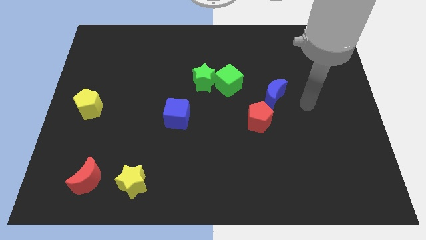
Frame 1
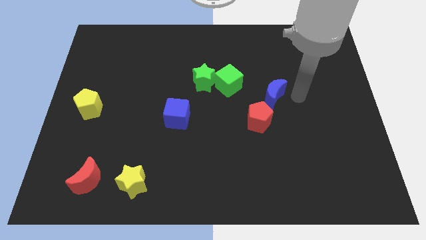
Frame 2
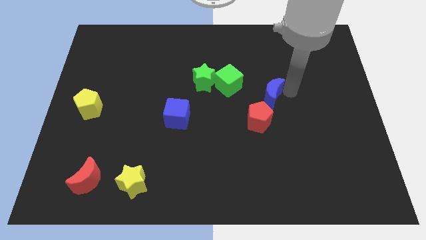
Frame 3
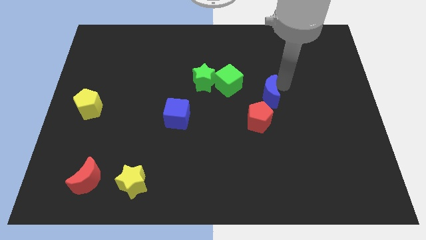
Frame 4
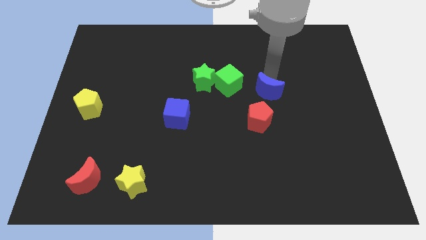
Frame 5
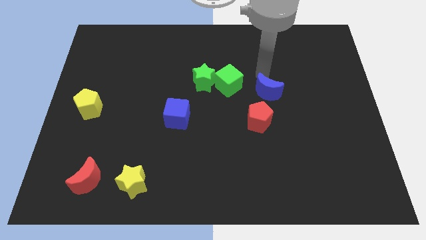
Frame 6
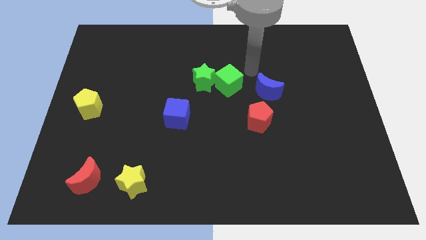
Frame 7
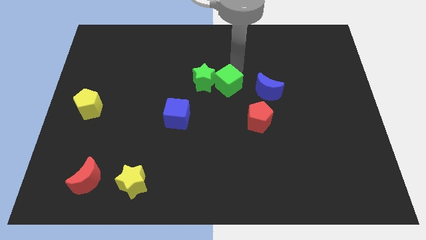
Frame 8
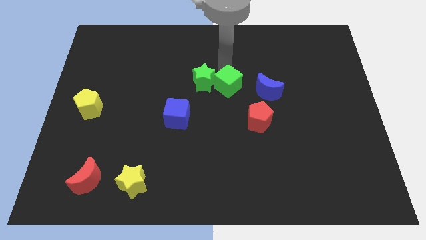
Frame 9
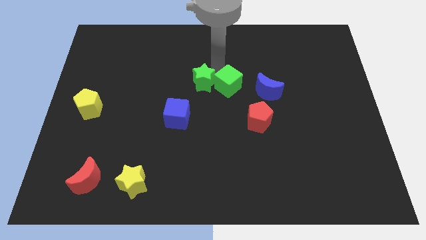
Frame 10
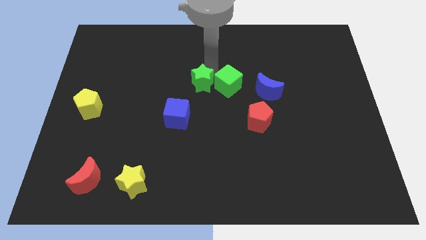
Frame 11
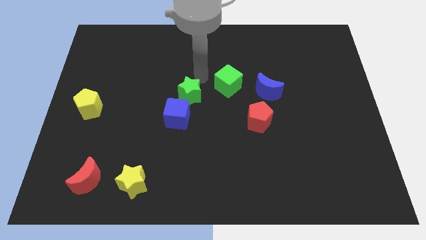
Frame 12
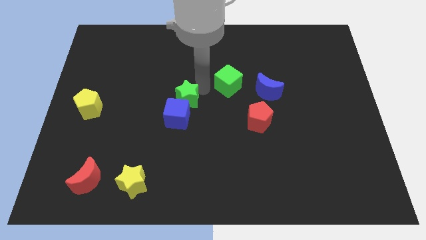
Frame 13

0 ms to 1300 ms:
pull the green cube apart from the green star

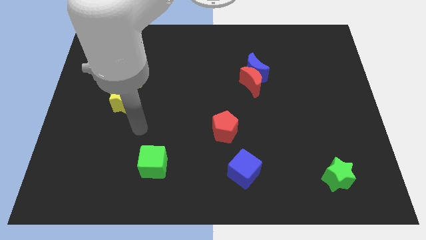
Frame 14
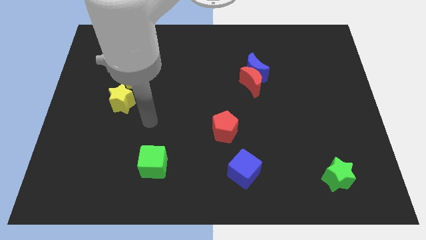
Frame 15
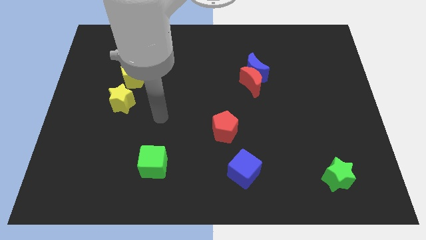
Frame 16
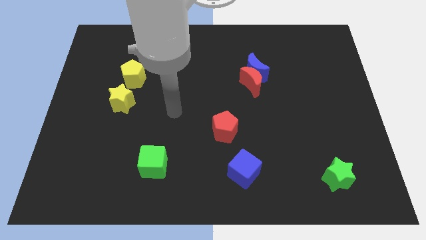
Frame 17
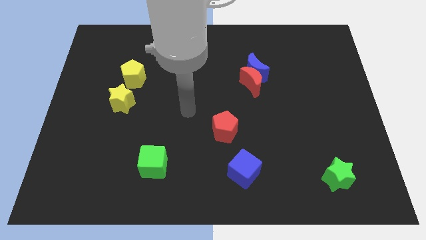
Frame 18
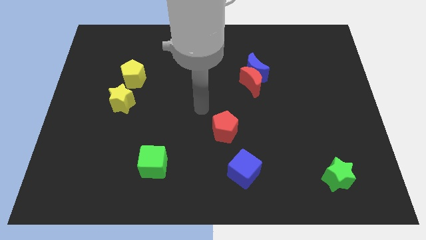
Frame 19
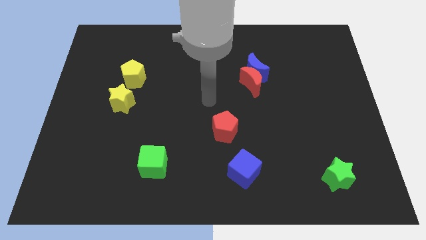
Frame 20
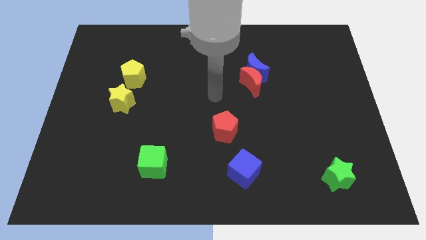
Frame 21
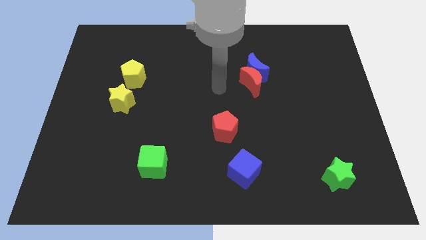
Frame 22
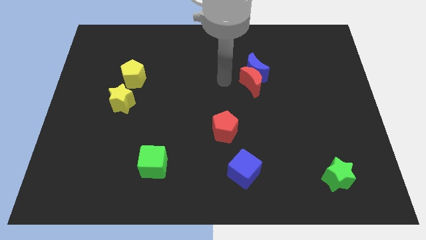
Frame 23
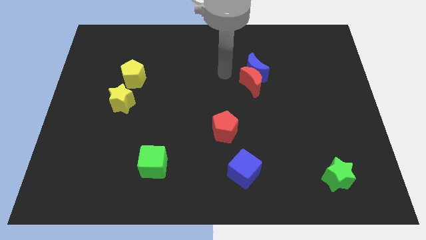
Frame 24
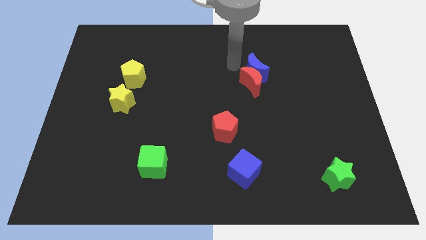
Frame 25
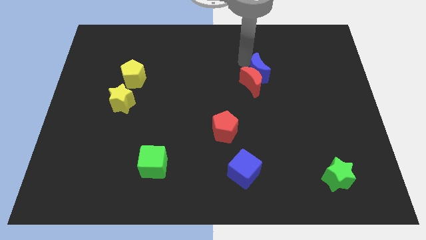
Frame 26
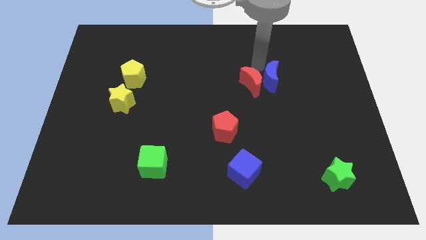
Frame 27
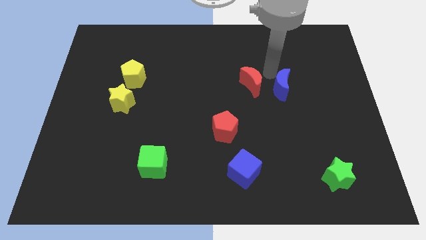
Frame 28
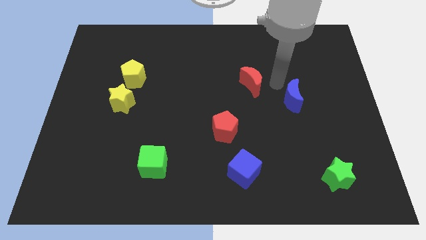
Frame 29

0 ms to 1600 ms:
separate the red moon from the blue moon

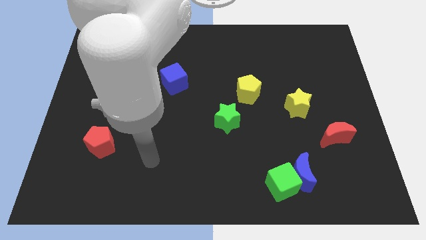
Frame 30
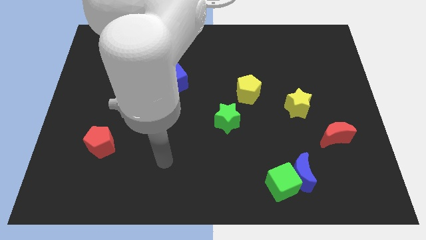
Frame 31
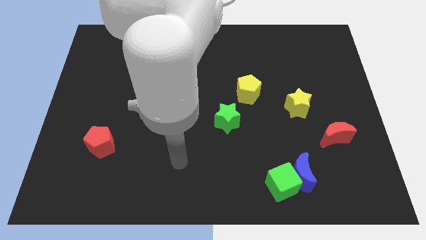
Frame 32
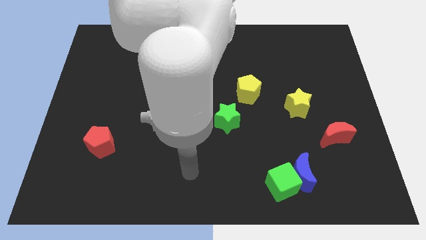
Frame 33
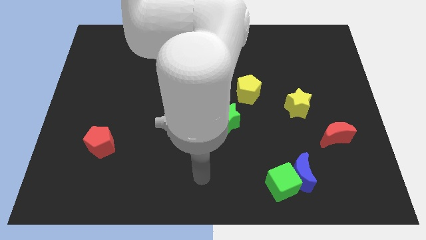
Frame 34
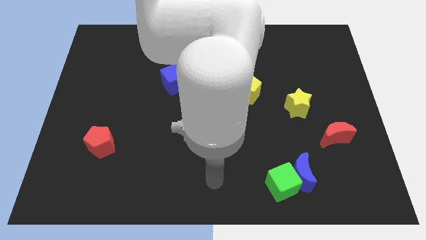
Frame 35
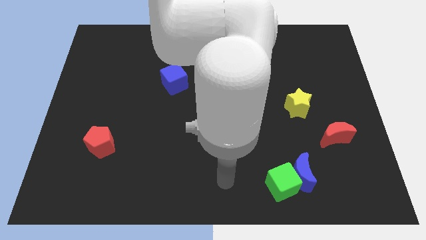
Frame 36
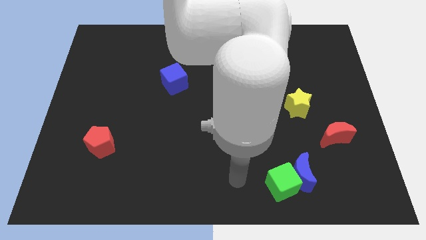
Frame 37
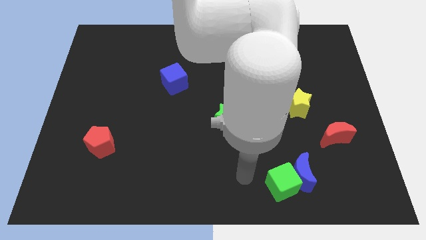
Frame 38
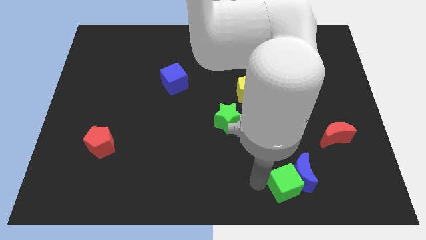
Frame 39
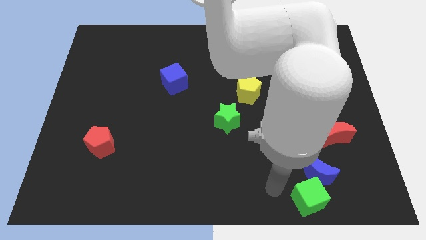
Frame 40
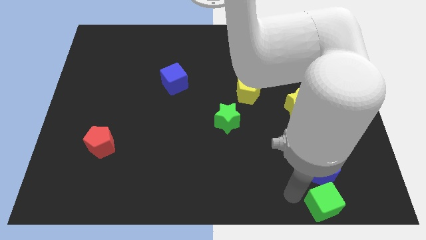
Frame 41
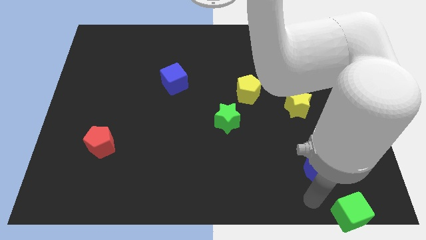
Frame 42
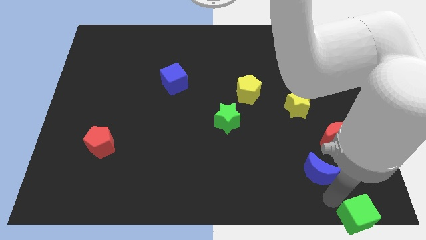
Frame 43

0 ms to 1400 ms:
pull the blue moon apart from the green cube

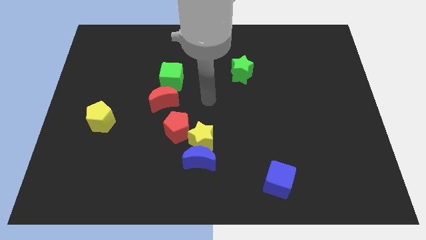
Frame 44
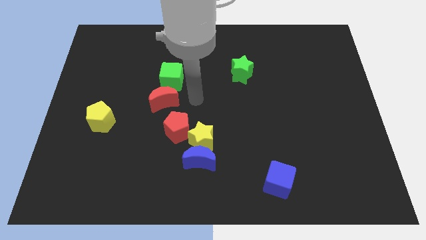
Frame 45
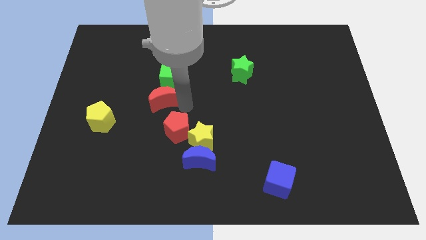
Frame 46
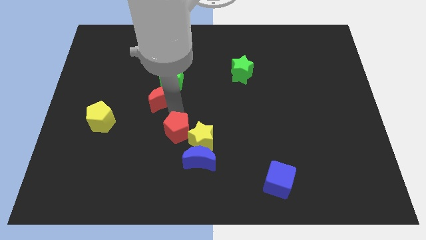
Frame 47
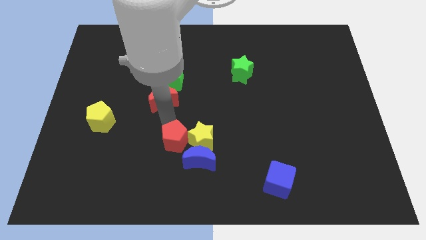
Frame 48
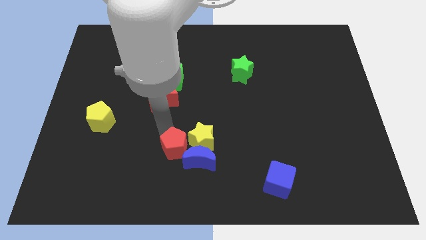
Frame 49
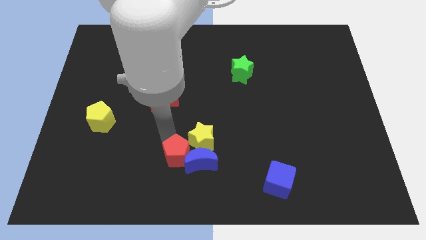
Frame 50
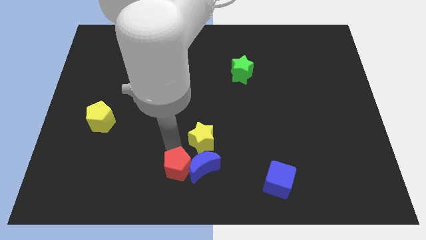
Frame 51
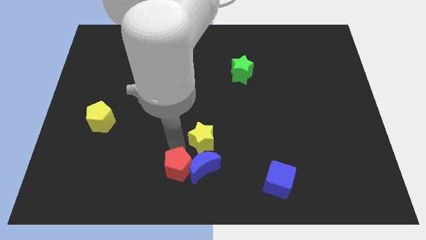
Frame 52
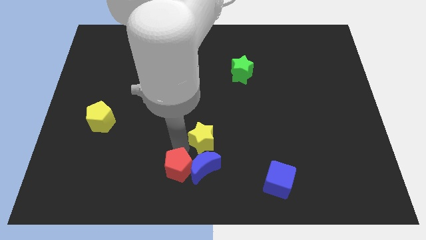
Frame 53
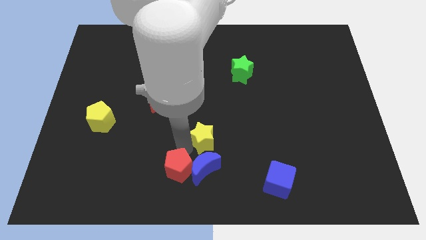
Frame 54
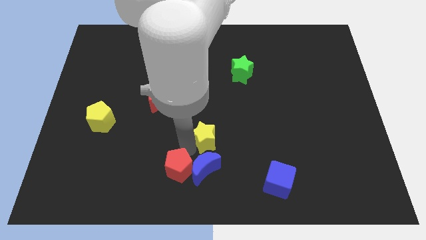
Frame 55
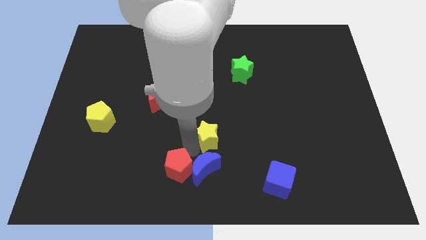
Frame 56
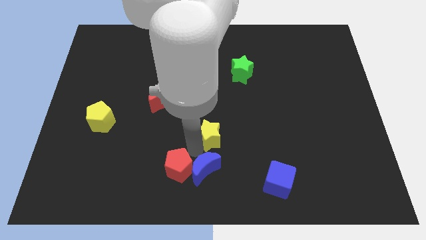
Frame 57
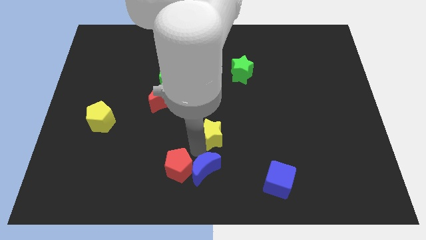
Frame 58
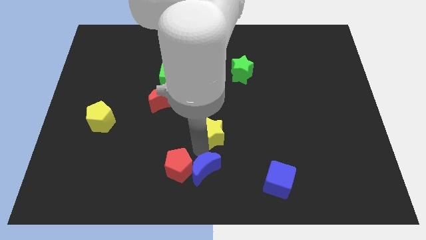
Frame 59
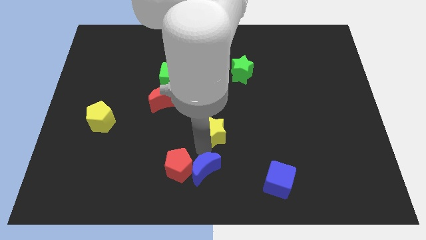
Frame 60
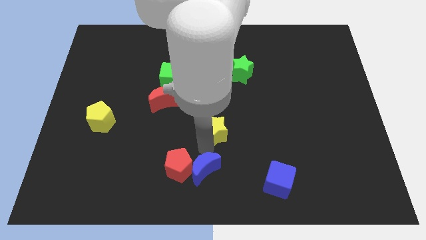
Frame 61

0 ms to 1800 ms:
move the yellow star away from the blue moon and red pentagon

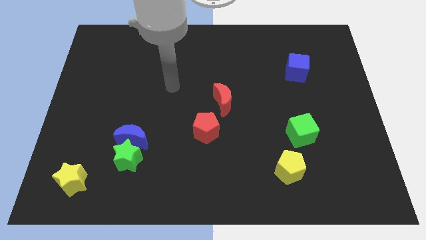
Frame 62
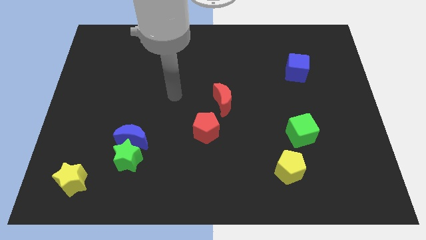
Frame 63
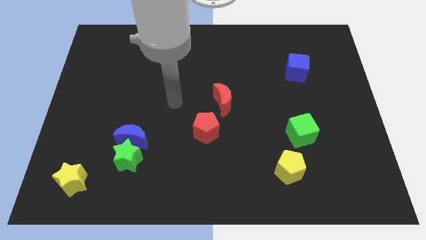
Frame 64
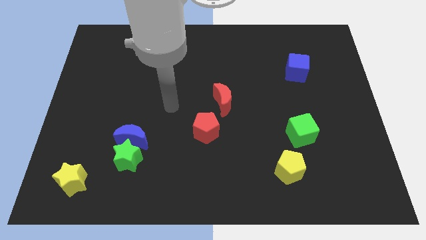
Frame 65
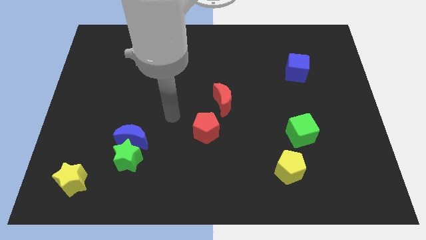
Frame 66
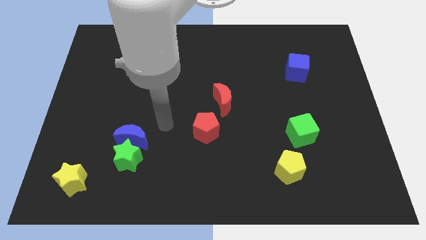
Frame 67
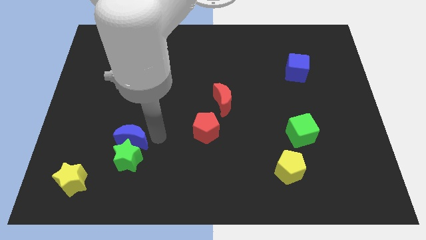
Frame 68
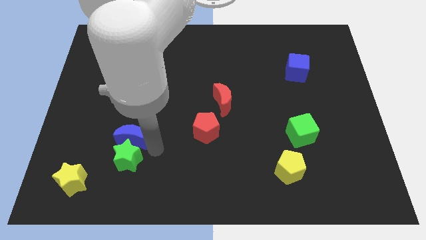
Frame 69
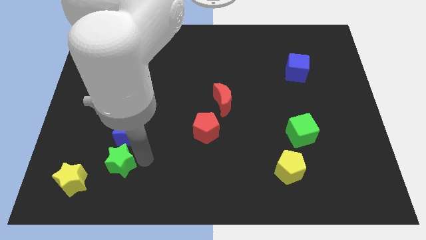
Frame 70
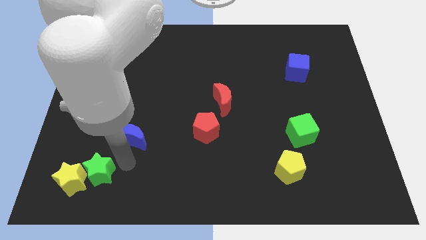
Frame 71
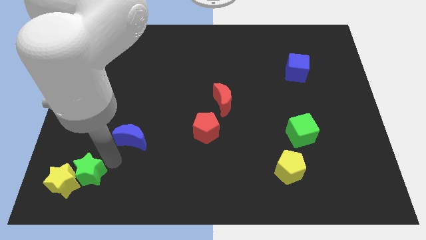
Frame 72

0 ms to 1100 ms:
separate the blue moon from the green star

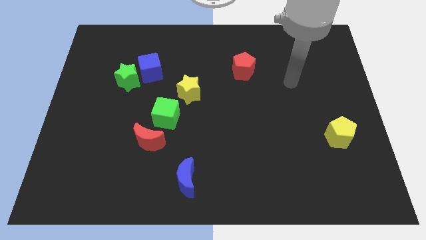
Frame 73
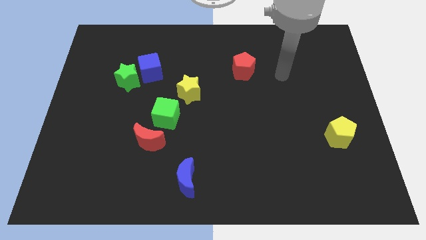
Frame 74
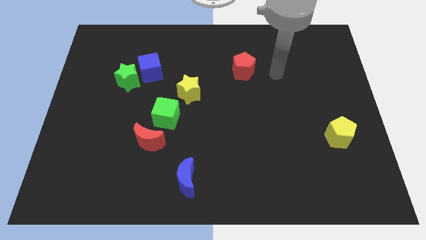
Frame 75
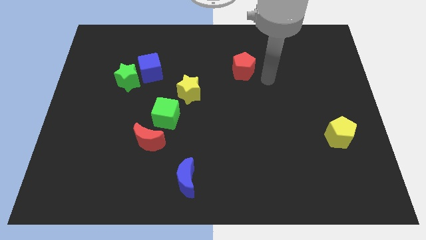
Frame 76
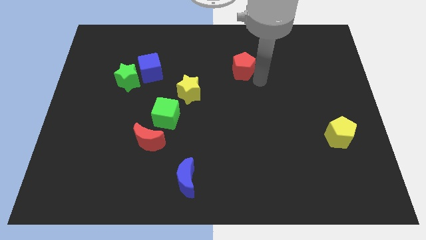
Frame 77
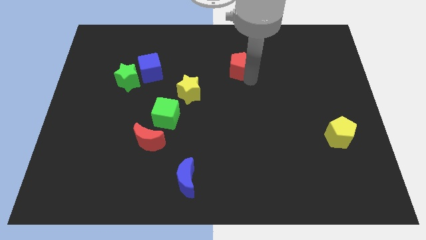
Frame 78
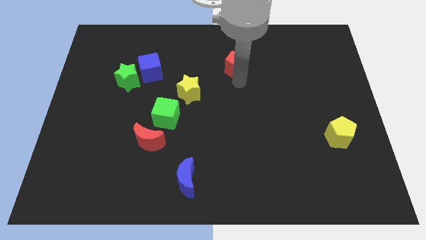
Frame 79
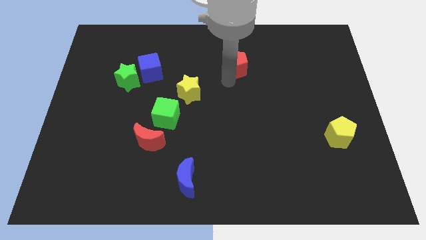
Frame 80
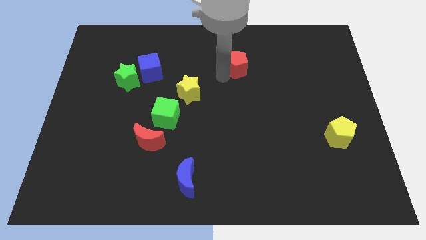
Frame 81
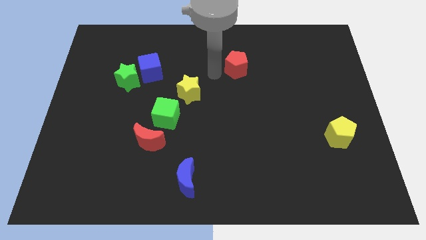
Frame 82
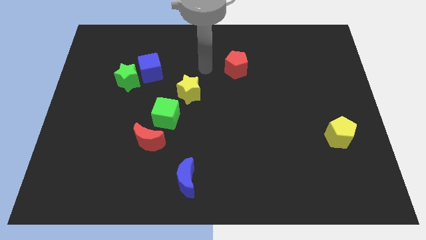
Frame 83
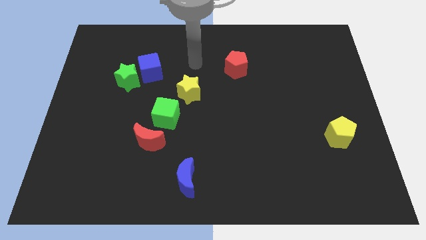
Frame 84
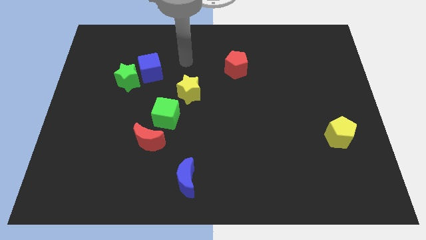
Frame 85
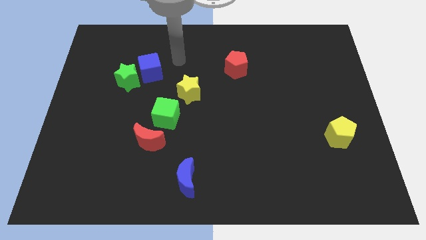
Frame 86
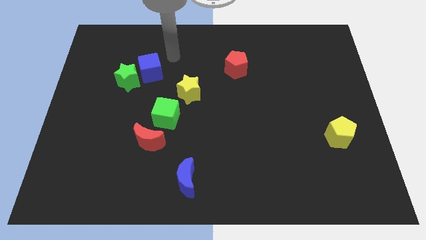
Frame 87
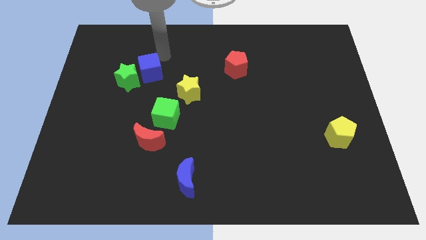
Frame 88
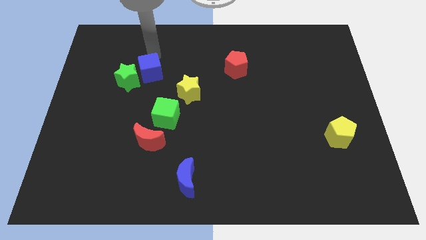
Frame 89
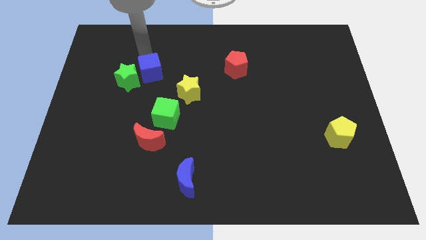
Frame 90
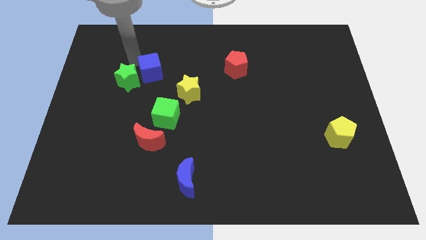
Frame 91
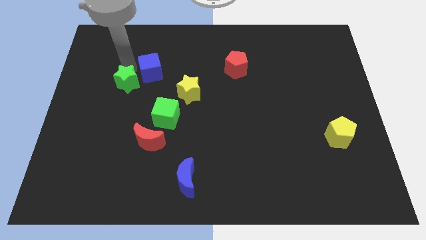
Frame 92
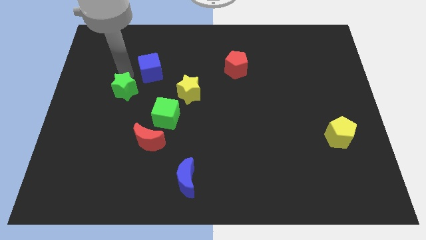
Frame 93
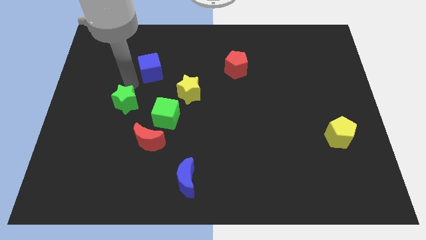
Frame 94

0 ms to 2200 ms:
pull the blue cube apart from the green star
